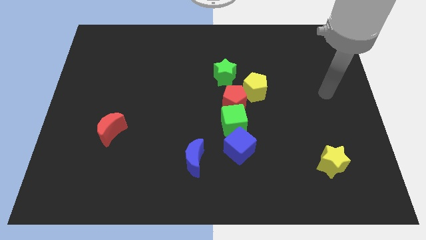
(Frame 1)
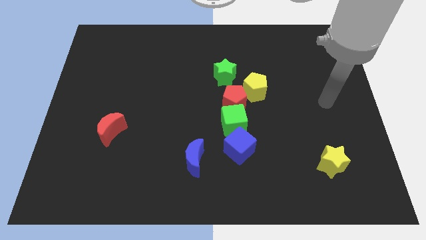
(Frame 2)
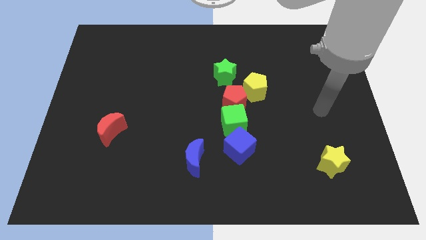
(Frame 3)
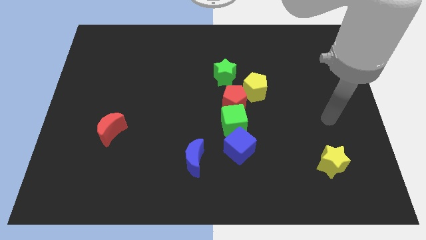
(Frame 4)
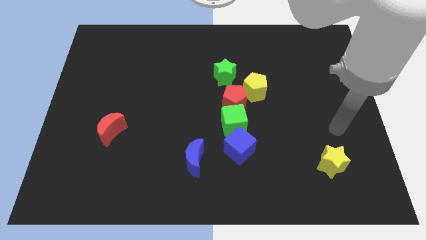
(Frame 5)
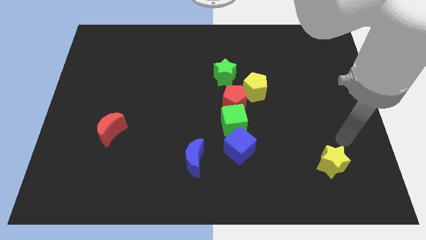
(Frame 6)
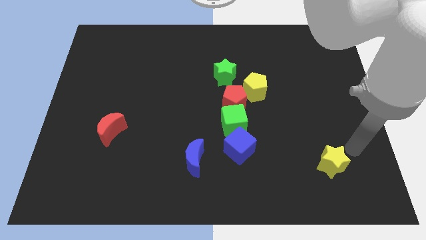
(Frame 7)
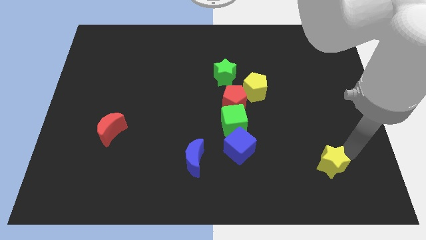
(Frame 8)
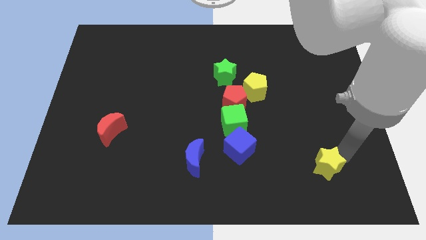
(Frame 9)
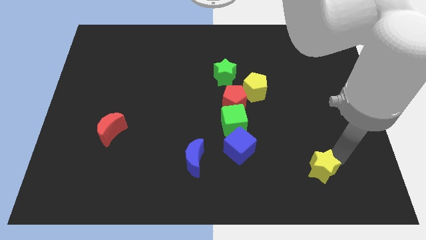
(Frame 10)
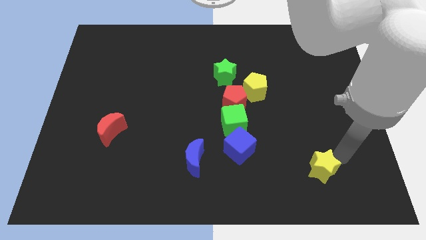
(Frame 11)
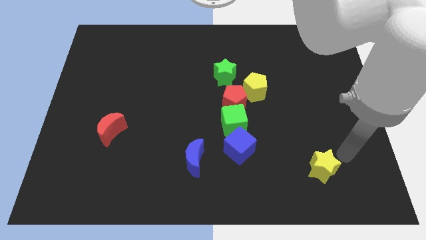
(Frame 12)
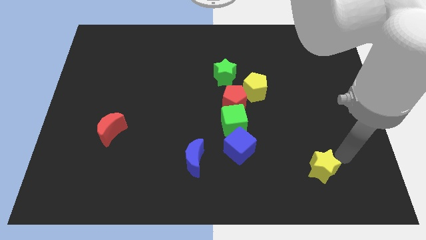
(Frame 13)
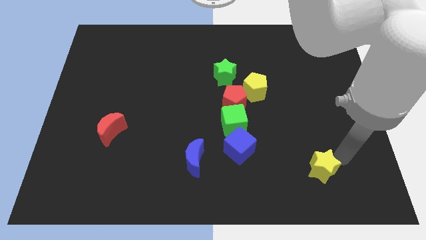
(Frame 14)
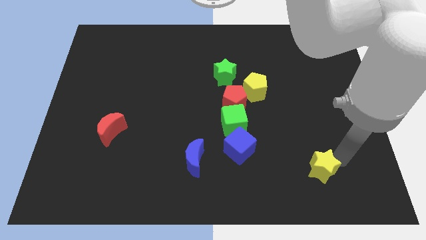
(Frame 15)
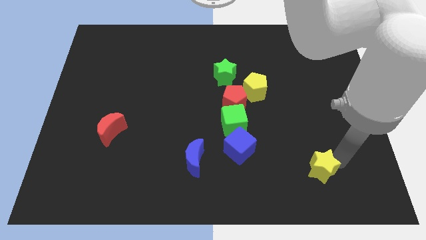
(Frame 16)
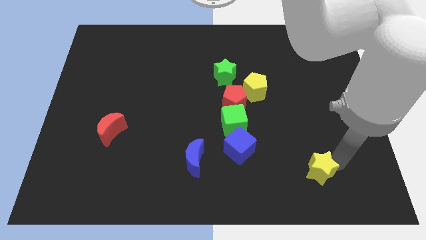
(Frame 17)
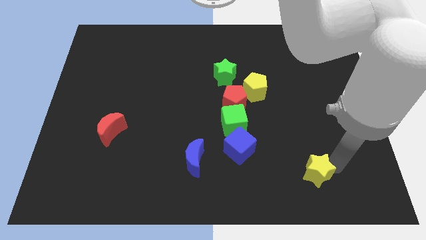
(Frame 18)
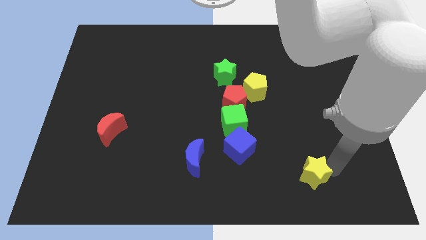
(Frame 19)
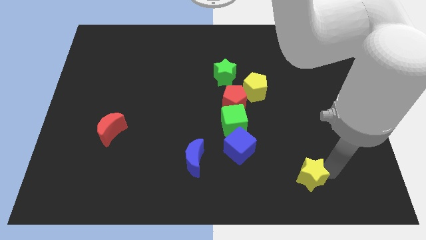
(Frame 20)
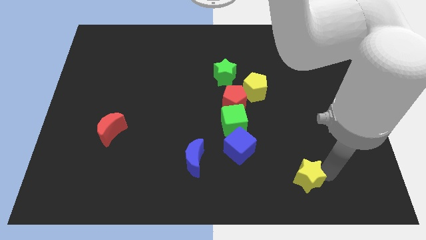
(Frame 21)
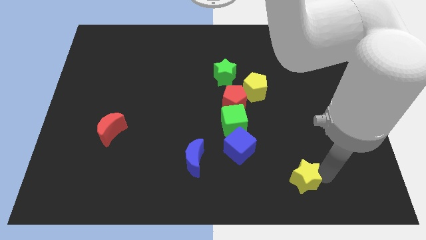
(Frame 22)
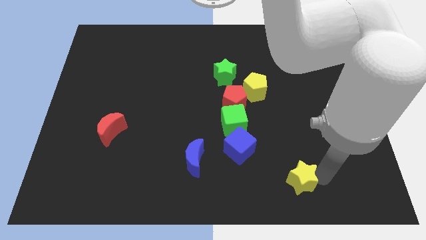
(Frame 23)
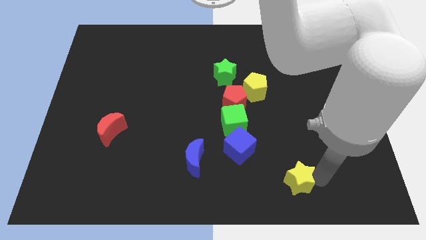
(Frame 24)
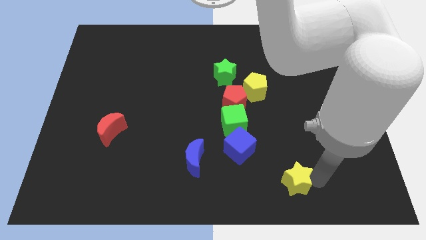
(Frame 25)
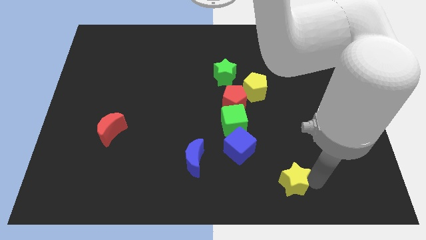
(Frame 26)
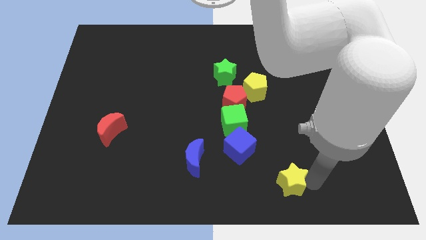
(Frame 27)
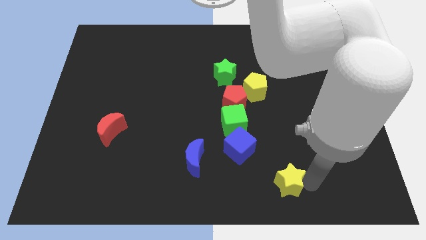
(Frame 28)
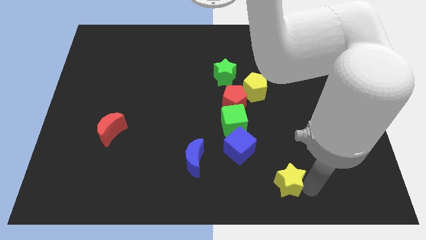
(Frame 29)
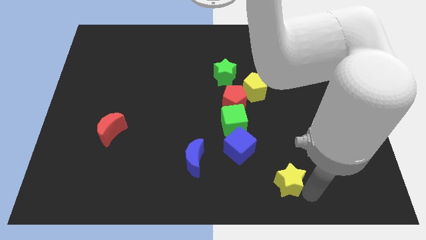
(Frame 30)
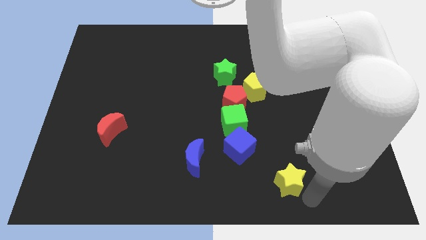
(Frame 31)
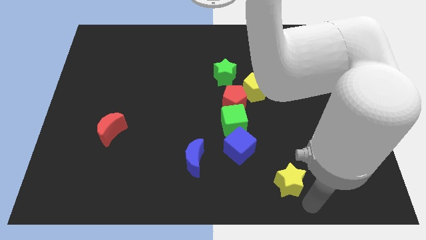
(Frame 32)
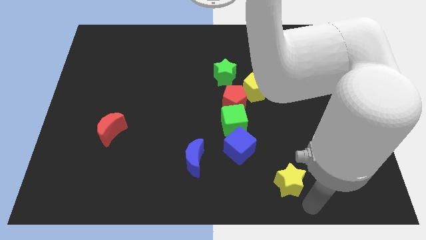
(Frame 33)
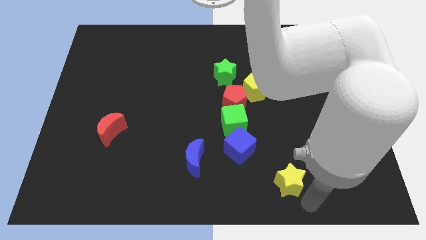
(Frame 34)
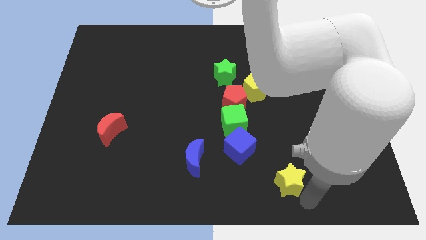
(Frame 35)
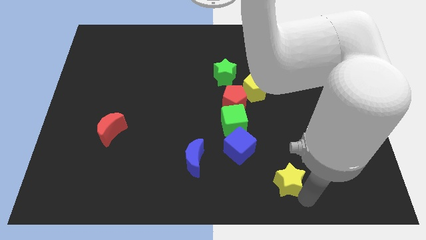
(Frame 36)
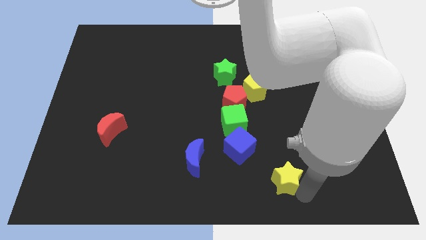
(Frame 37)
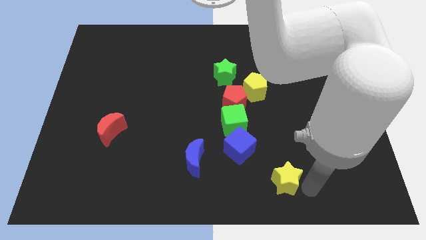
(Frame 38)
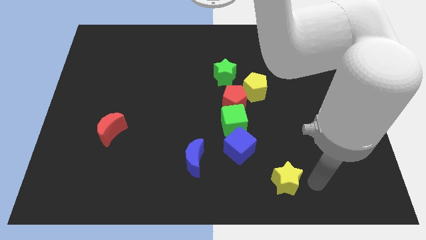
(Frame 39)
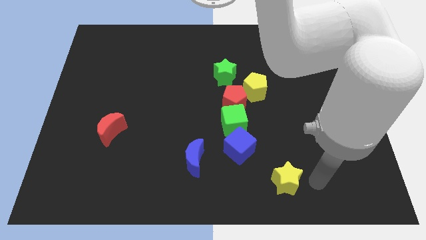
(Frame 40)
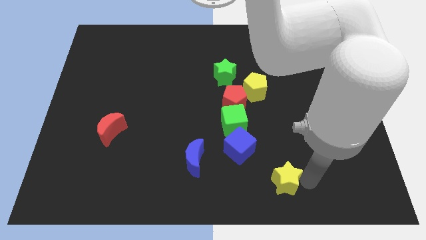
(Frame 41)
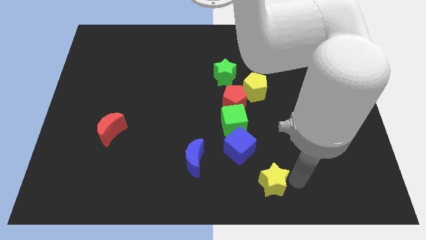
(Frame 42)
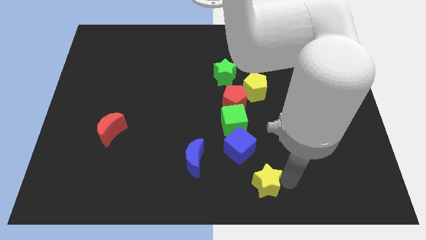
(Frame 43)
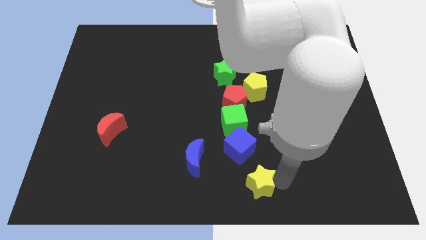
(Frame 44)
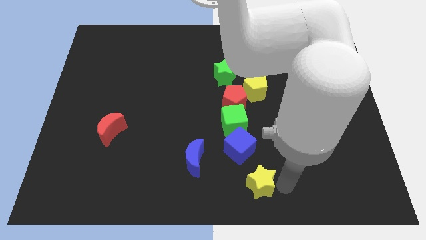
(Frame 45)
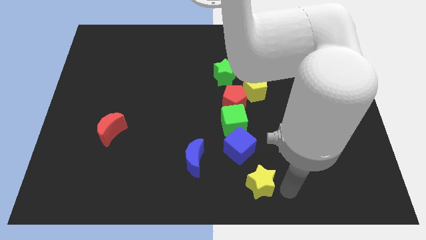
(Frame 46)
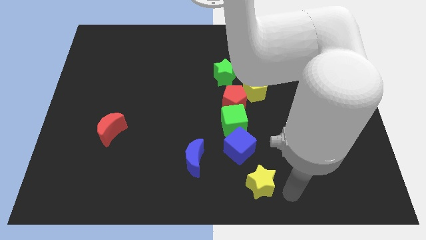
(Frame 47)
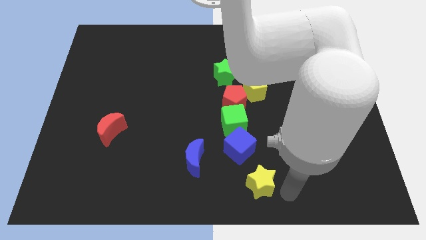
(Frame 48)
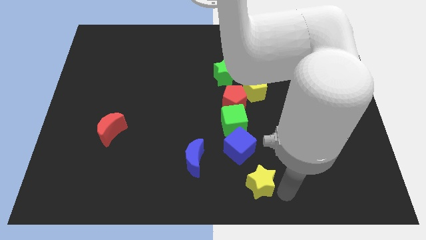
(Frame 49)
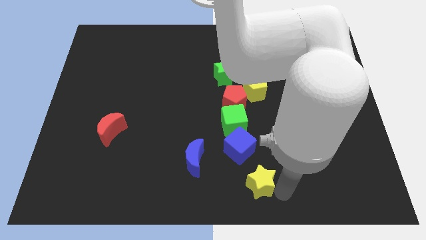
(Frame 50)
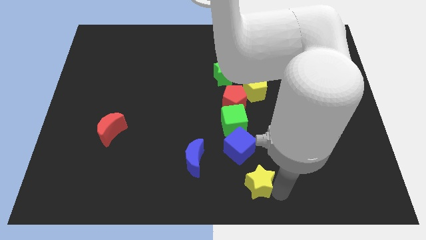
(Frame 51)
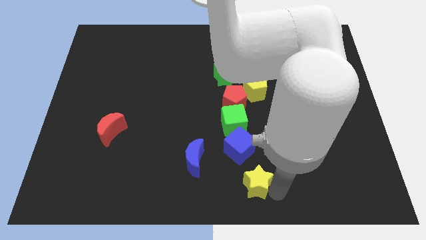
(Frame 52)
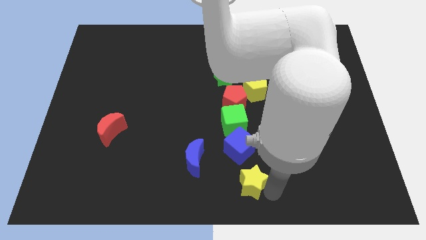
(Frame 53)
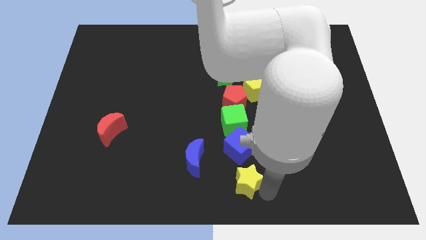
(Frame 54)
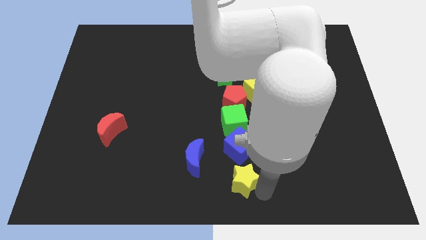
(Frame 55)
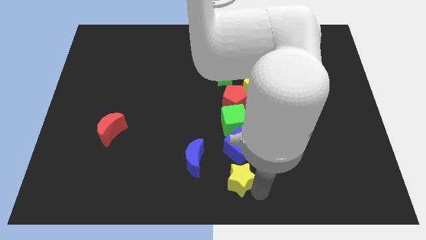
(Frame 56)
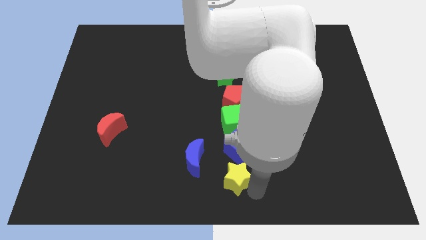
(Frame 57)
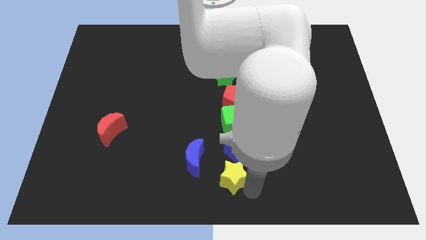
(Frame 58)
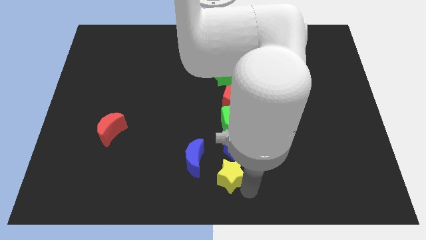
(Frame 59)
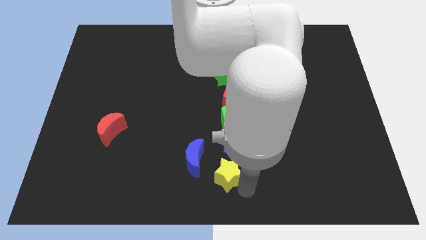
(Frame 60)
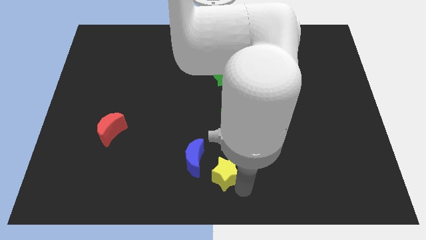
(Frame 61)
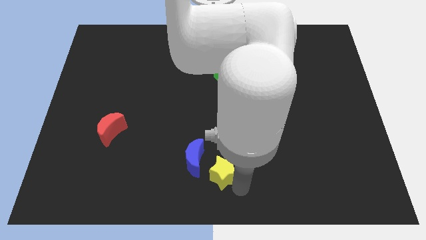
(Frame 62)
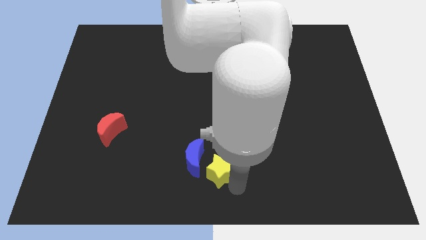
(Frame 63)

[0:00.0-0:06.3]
push the yellow star close to the blue moon

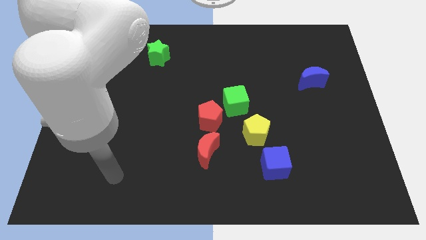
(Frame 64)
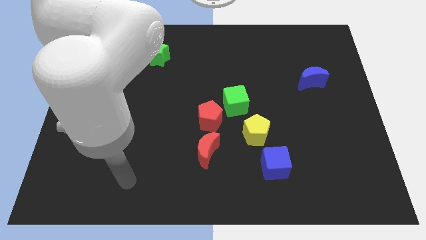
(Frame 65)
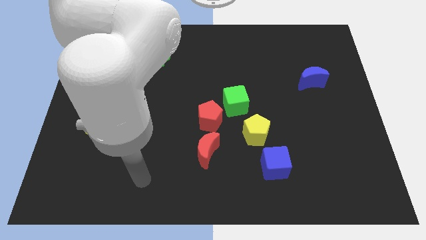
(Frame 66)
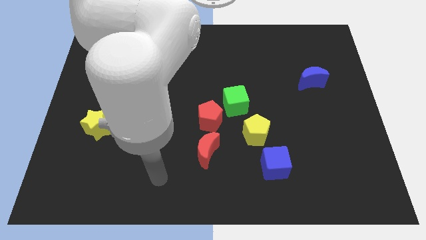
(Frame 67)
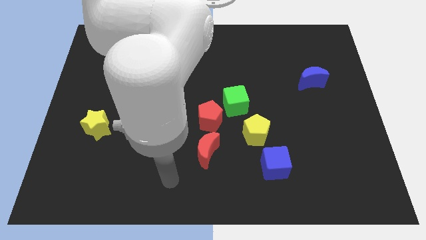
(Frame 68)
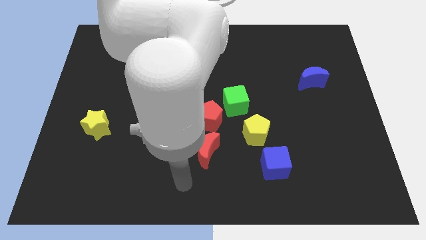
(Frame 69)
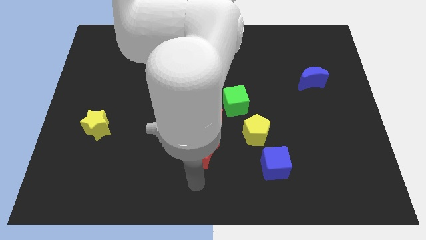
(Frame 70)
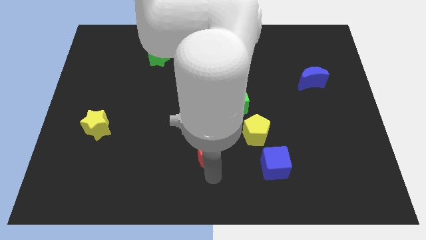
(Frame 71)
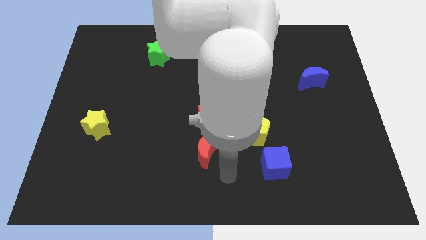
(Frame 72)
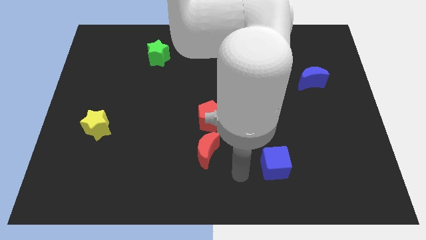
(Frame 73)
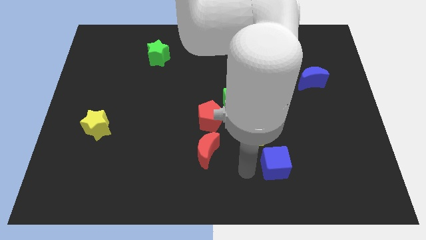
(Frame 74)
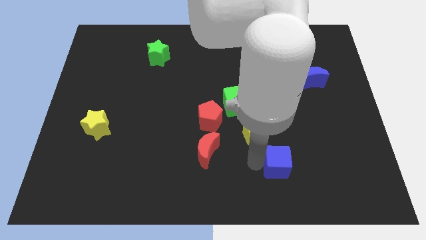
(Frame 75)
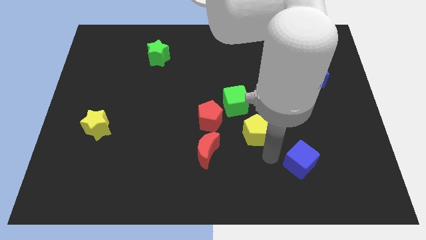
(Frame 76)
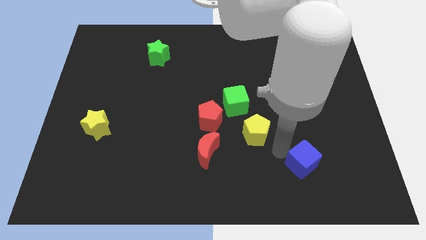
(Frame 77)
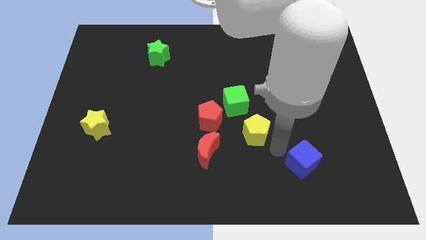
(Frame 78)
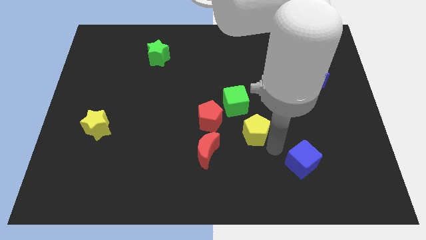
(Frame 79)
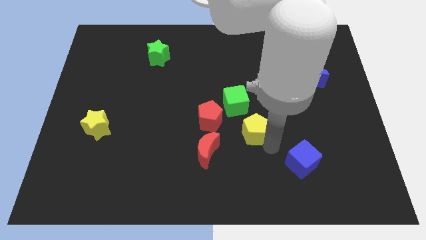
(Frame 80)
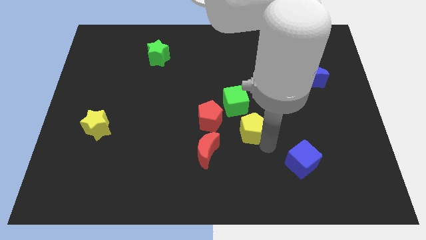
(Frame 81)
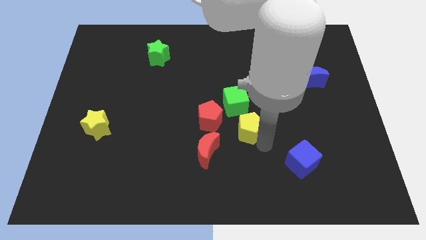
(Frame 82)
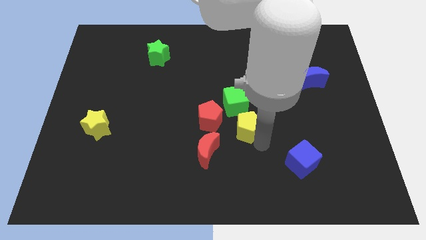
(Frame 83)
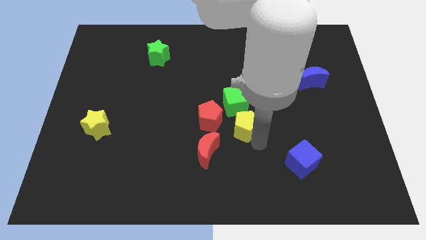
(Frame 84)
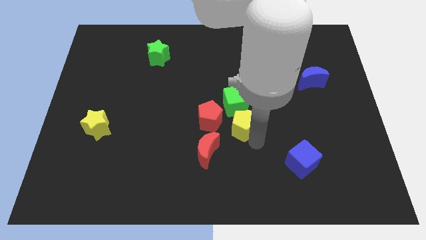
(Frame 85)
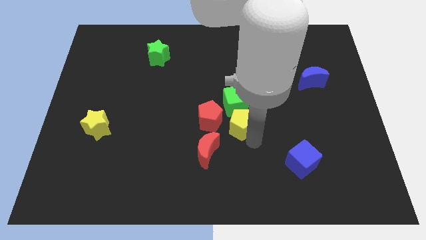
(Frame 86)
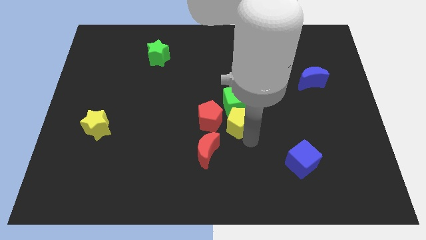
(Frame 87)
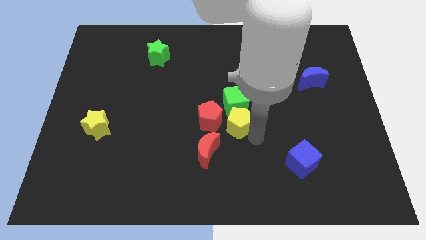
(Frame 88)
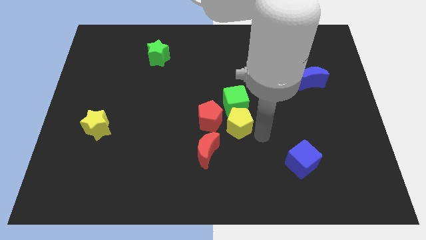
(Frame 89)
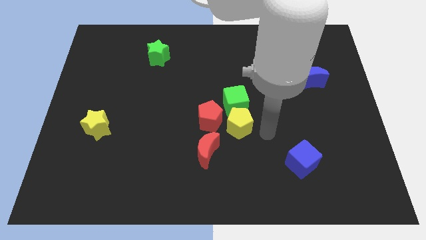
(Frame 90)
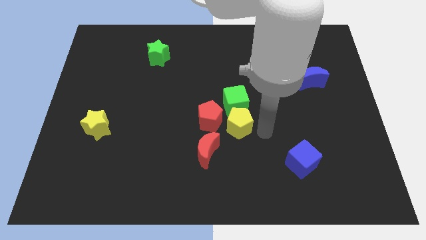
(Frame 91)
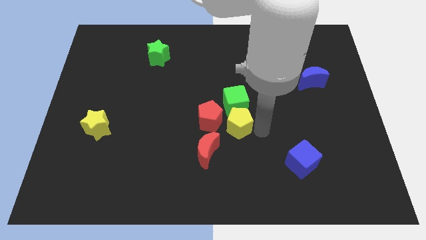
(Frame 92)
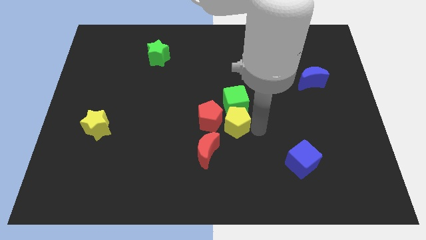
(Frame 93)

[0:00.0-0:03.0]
put the yellow pentagon next to the red pentagon
